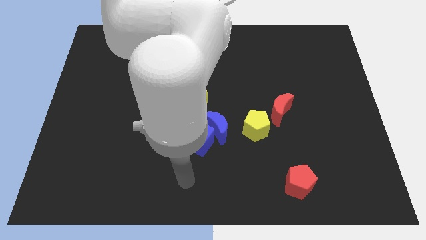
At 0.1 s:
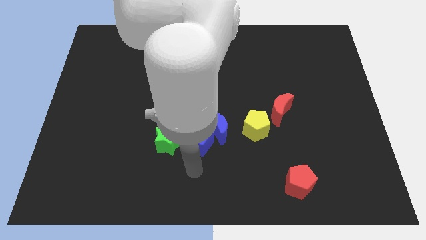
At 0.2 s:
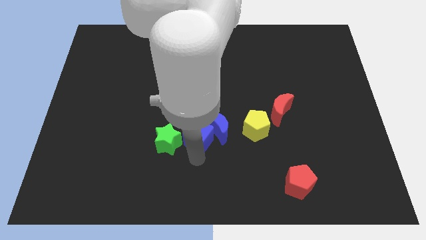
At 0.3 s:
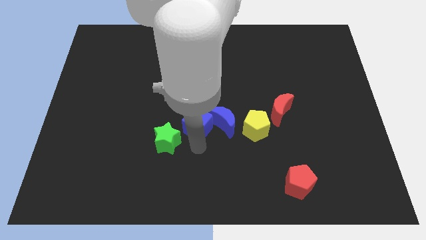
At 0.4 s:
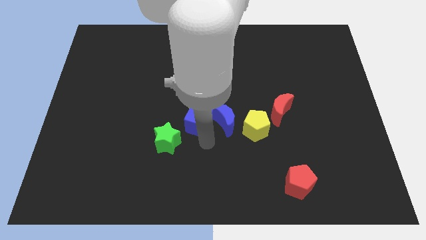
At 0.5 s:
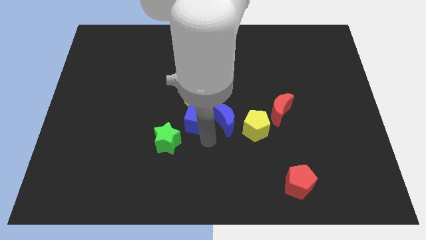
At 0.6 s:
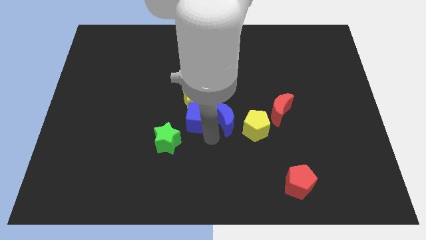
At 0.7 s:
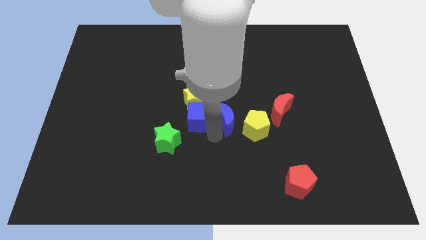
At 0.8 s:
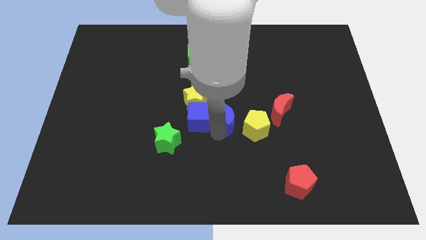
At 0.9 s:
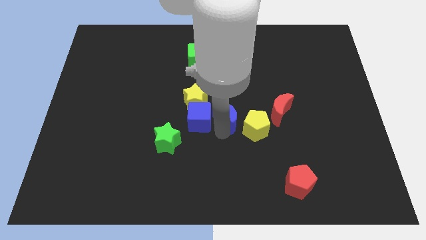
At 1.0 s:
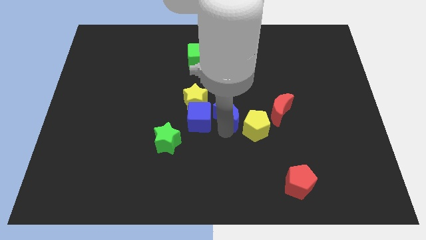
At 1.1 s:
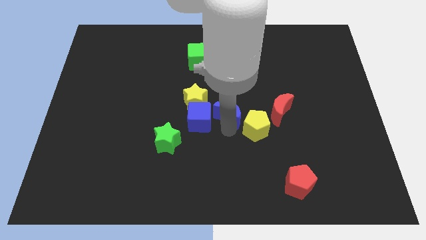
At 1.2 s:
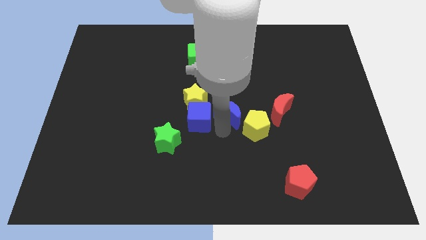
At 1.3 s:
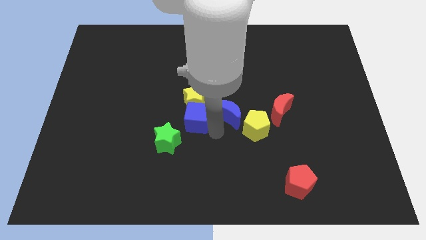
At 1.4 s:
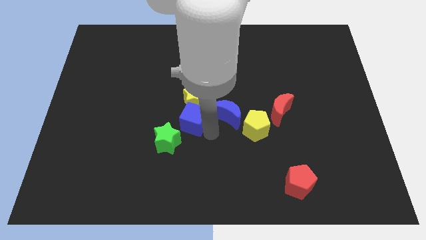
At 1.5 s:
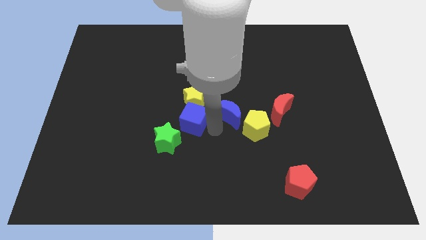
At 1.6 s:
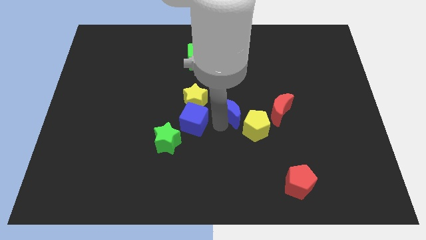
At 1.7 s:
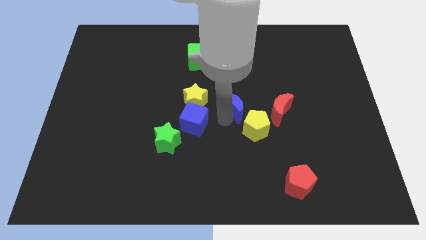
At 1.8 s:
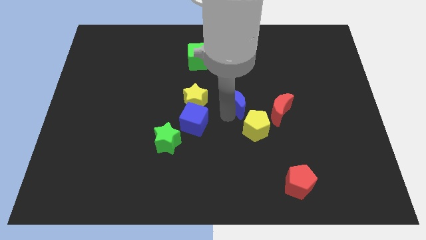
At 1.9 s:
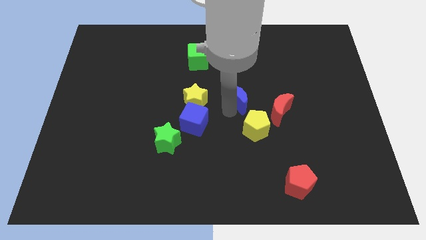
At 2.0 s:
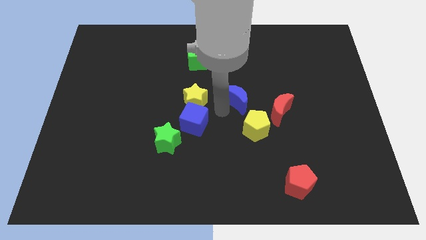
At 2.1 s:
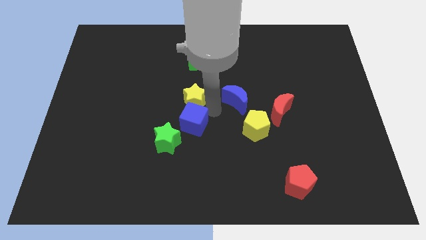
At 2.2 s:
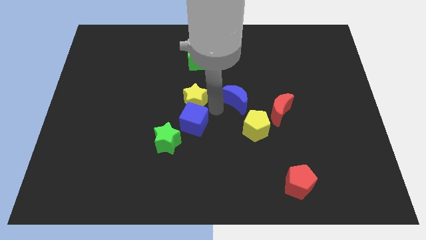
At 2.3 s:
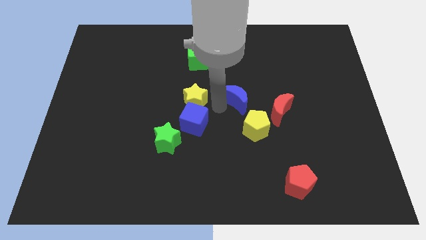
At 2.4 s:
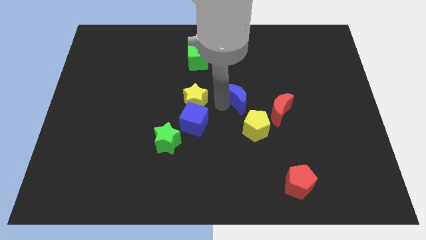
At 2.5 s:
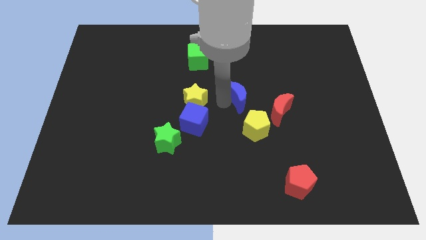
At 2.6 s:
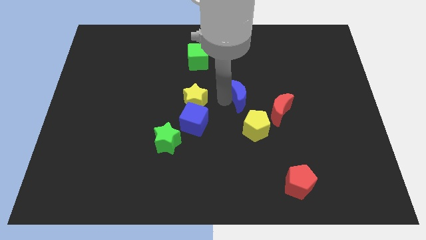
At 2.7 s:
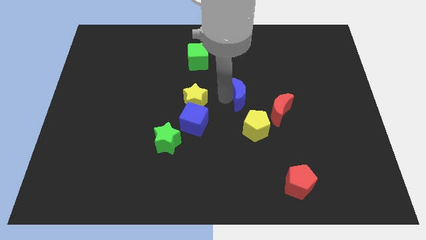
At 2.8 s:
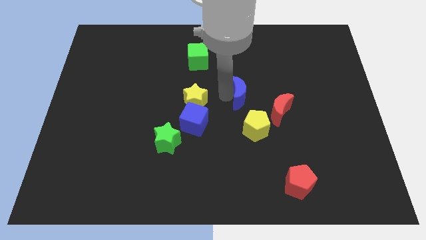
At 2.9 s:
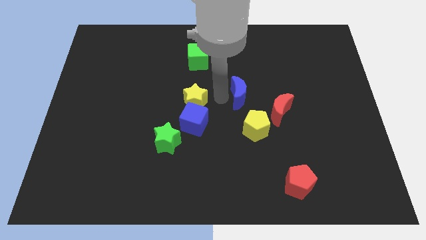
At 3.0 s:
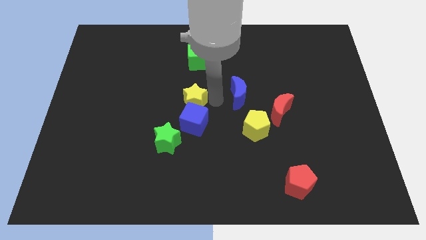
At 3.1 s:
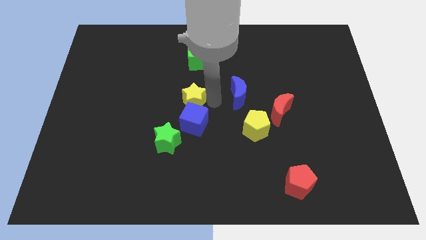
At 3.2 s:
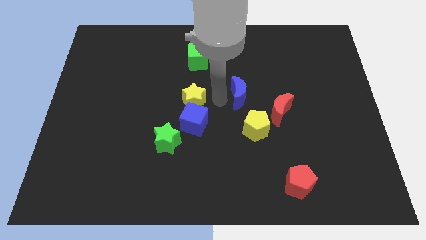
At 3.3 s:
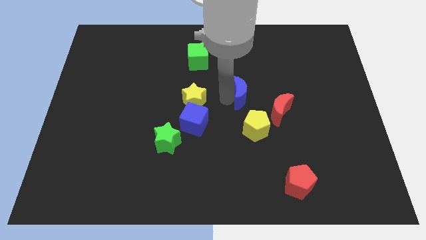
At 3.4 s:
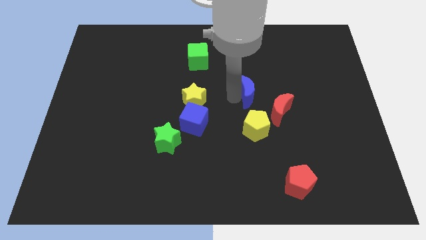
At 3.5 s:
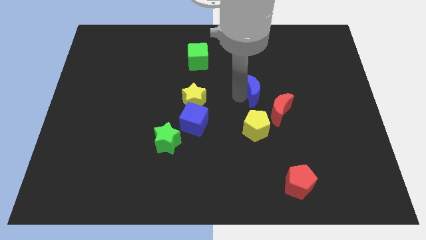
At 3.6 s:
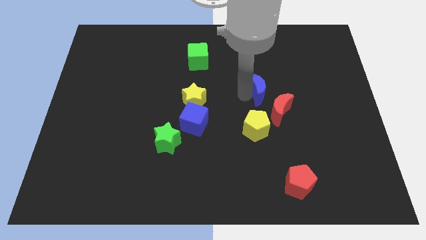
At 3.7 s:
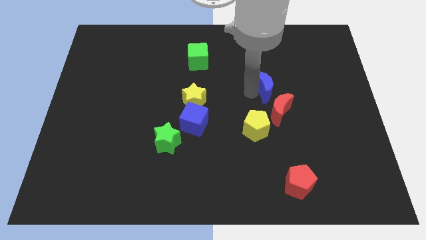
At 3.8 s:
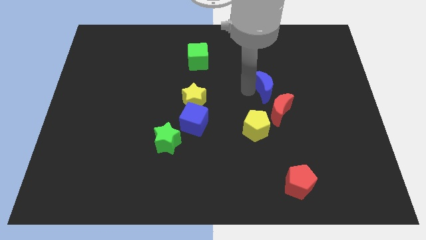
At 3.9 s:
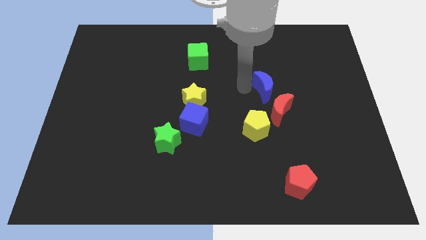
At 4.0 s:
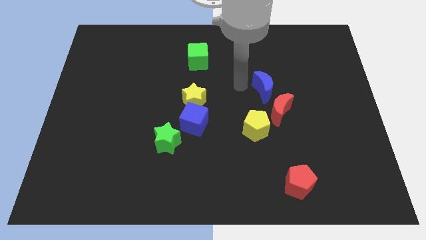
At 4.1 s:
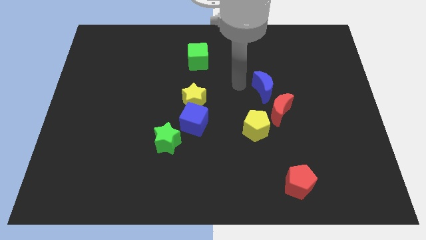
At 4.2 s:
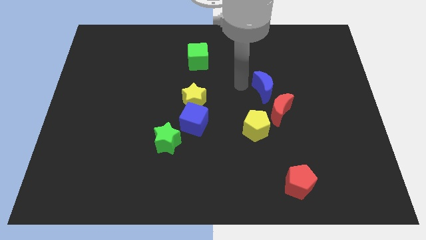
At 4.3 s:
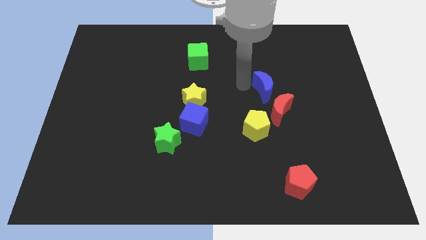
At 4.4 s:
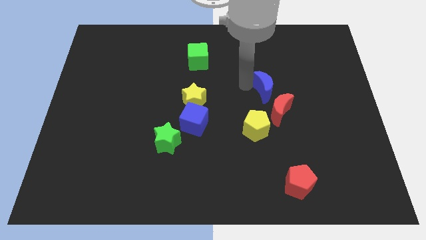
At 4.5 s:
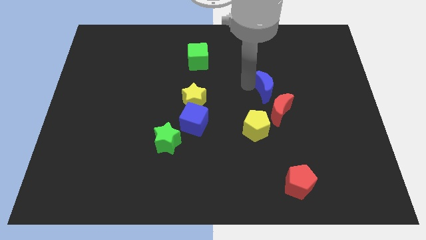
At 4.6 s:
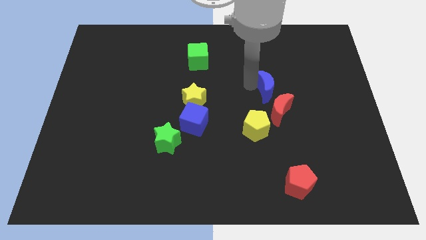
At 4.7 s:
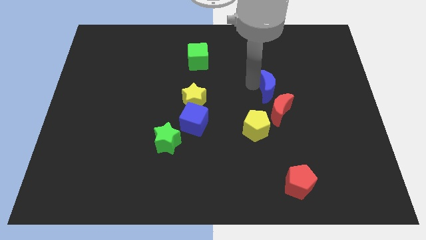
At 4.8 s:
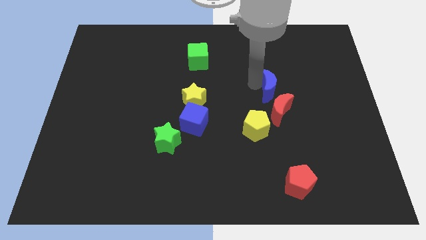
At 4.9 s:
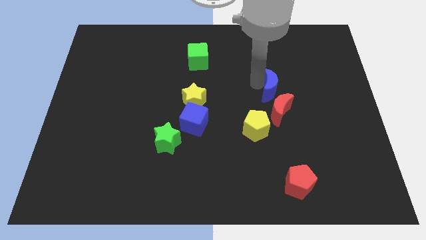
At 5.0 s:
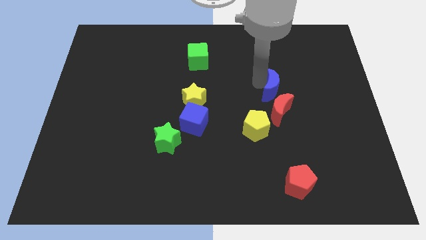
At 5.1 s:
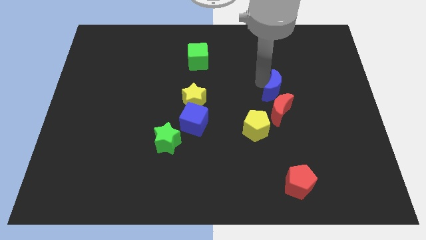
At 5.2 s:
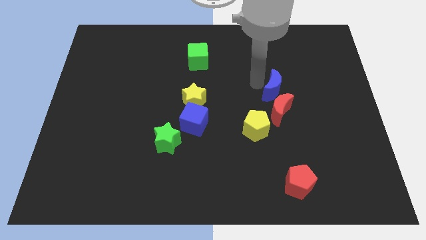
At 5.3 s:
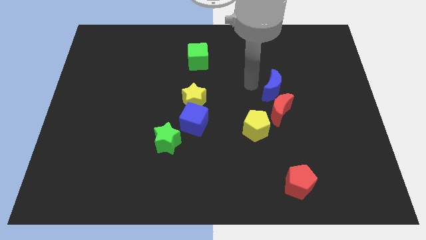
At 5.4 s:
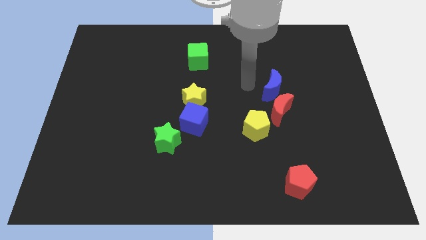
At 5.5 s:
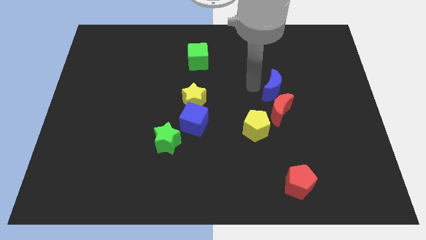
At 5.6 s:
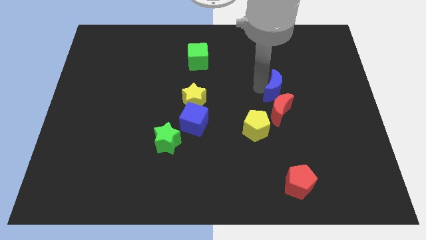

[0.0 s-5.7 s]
put the blue moon to the top right of the red moon

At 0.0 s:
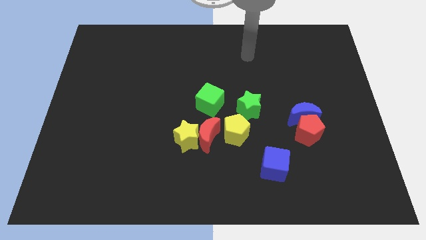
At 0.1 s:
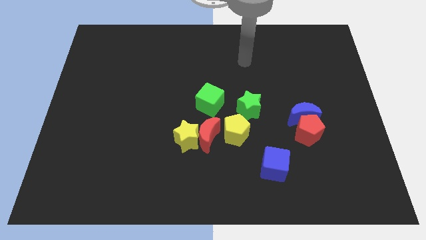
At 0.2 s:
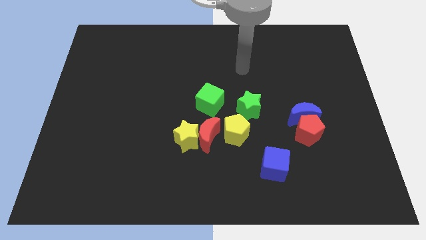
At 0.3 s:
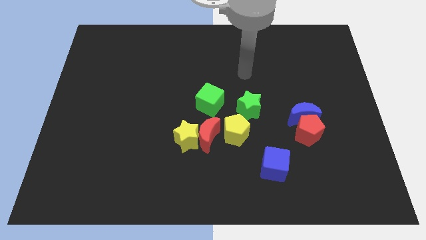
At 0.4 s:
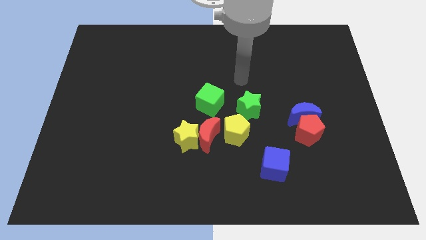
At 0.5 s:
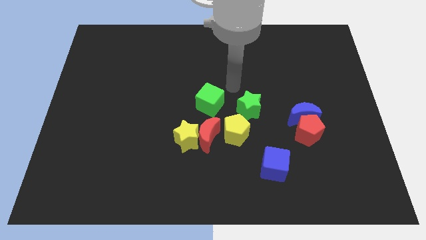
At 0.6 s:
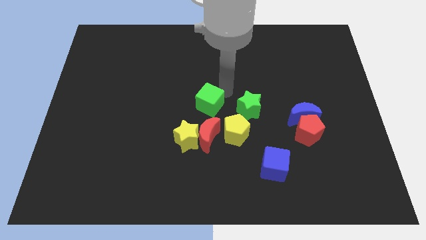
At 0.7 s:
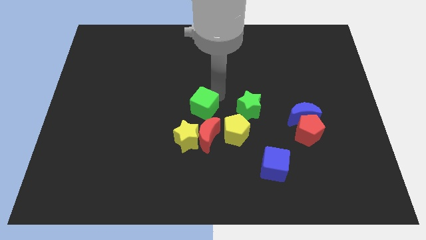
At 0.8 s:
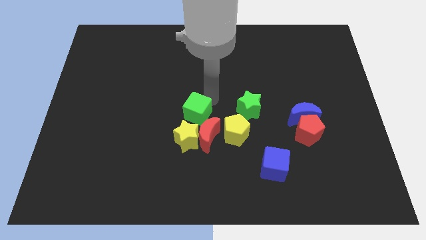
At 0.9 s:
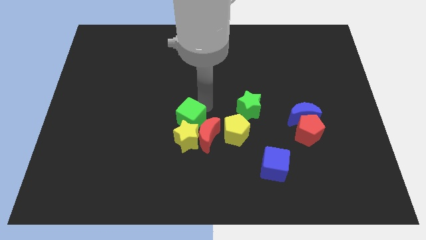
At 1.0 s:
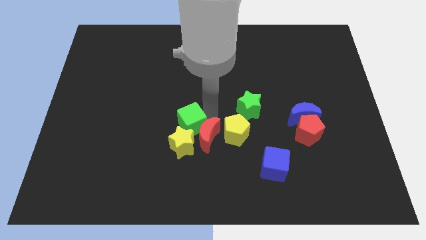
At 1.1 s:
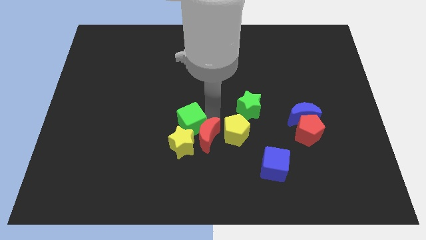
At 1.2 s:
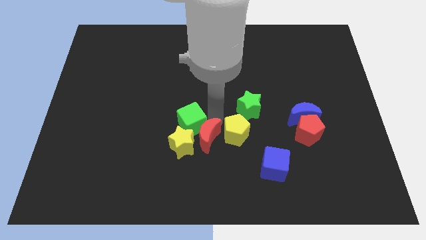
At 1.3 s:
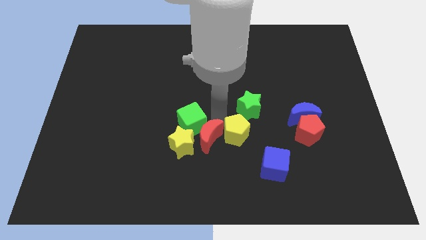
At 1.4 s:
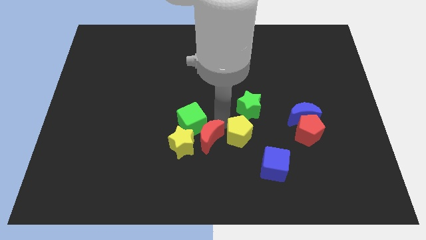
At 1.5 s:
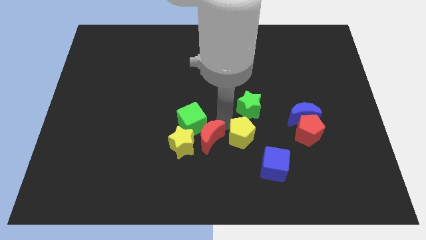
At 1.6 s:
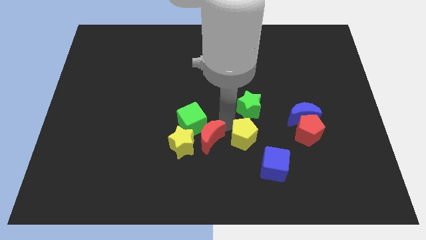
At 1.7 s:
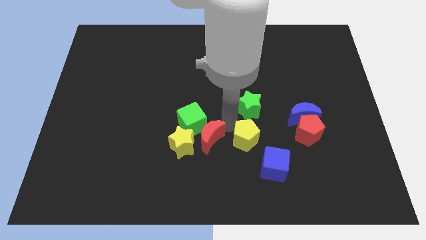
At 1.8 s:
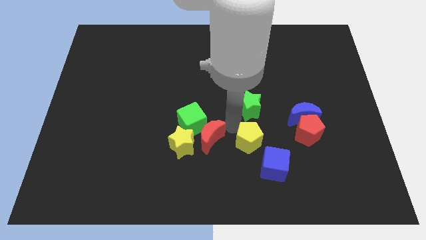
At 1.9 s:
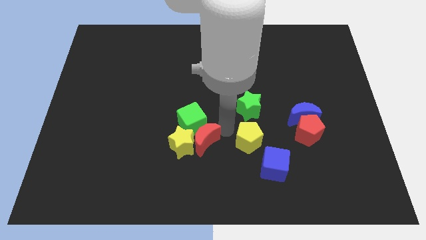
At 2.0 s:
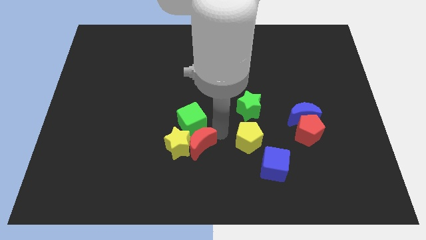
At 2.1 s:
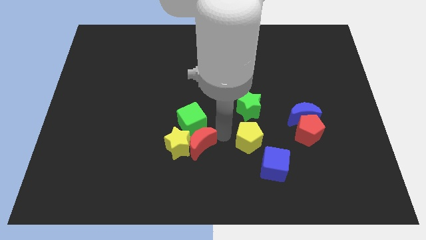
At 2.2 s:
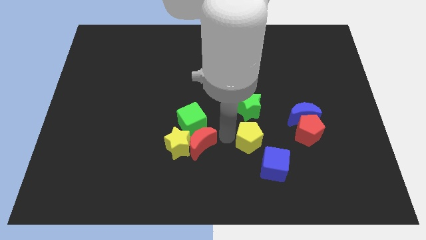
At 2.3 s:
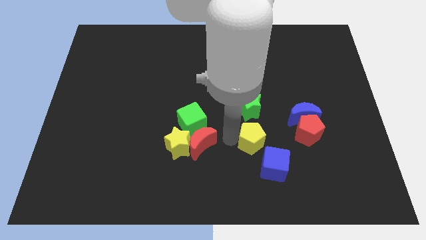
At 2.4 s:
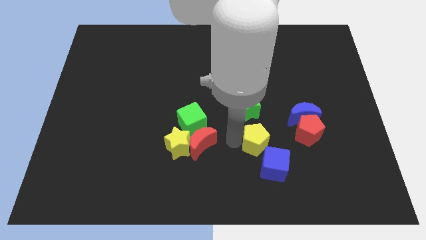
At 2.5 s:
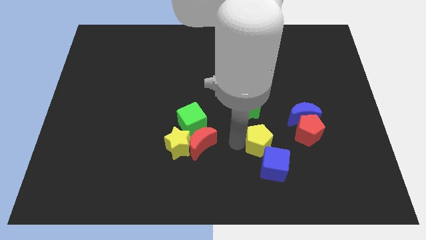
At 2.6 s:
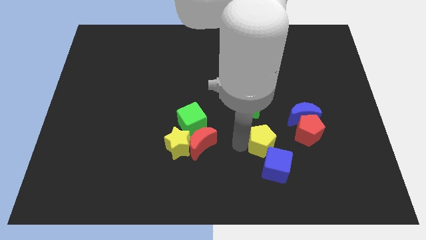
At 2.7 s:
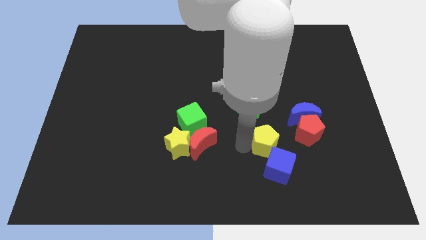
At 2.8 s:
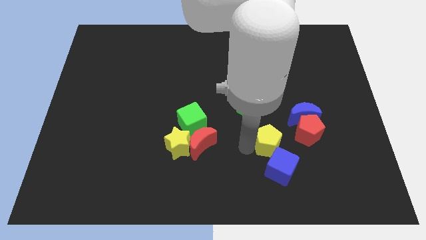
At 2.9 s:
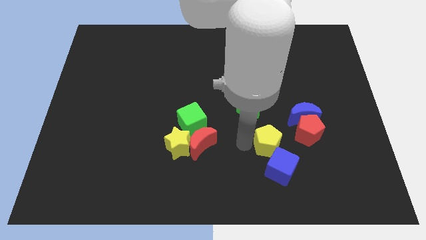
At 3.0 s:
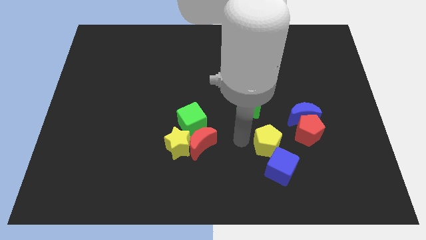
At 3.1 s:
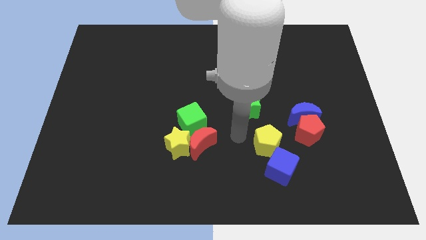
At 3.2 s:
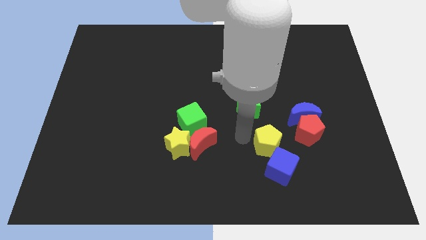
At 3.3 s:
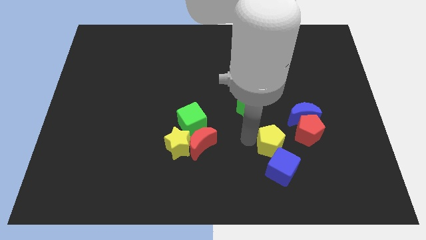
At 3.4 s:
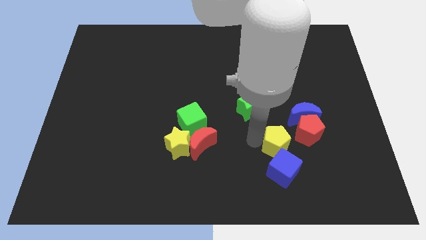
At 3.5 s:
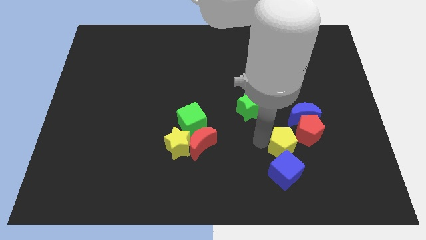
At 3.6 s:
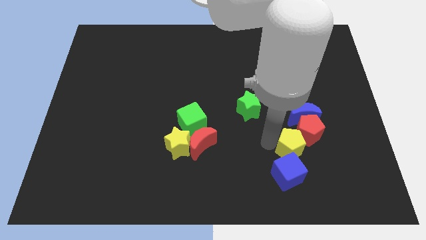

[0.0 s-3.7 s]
push the yellow pentagon to the bottom side of the blue moon
